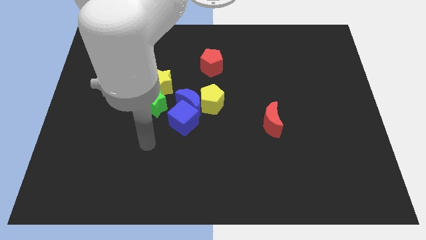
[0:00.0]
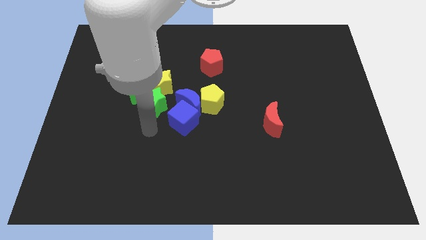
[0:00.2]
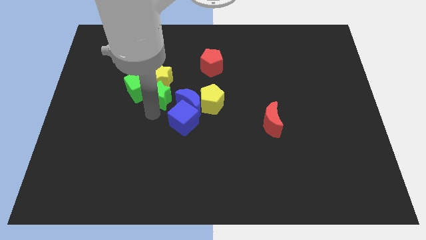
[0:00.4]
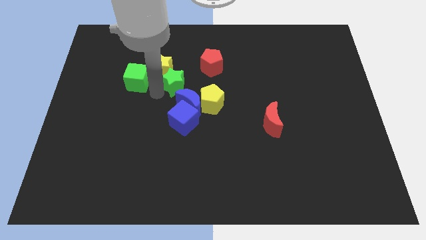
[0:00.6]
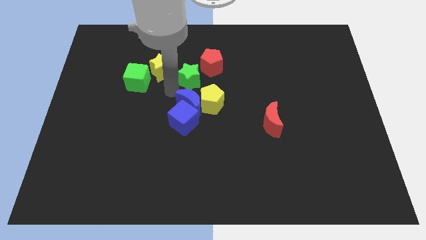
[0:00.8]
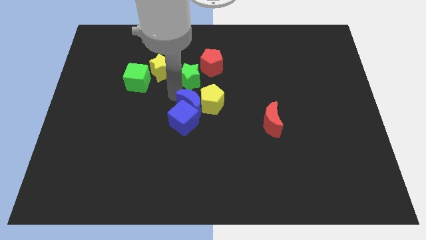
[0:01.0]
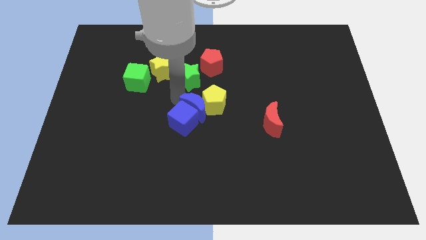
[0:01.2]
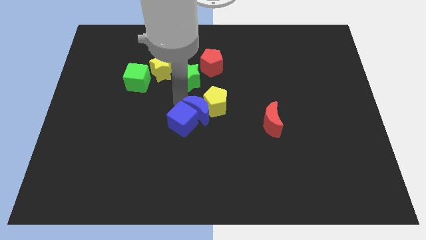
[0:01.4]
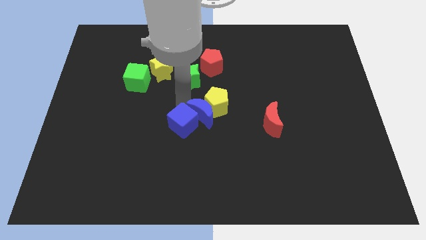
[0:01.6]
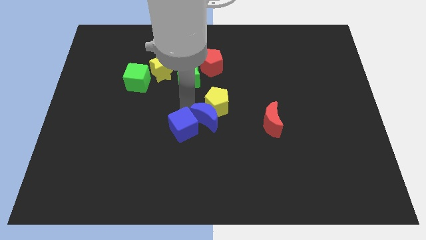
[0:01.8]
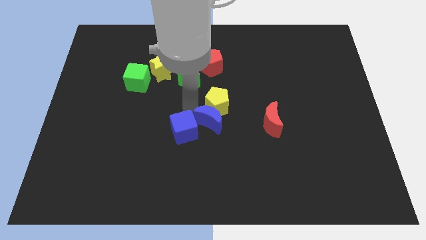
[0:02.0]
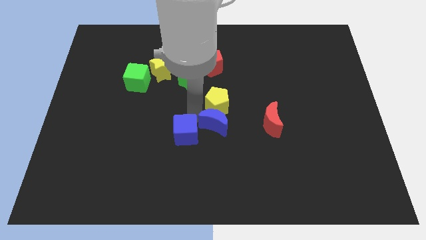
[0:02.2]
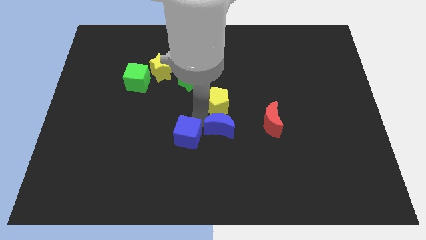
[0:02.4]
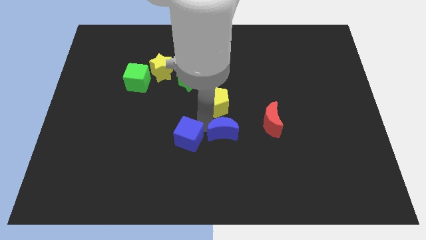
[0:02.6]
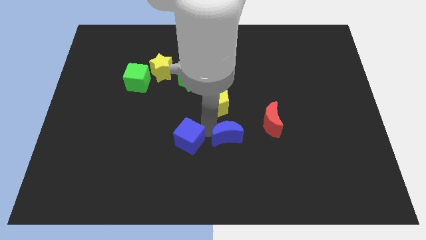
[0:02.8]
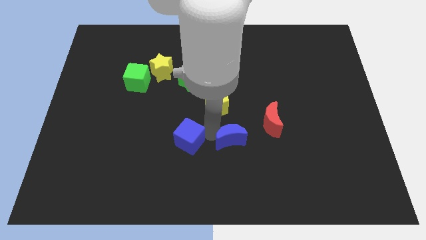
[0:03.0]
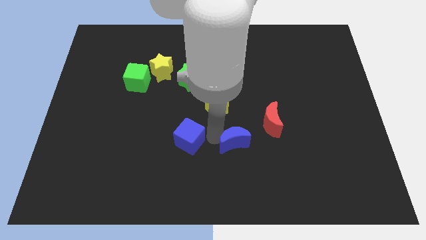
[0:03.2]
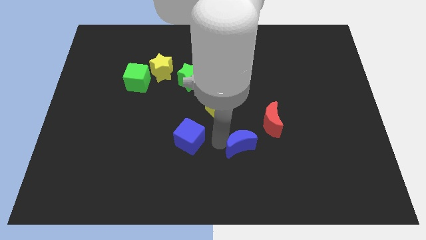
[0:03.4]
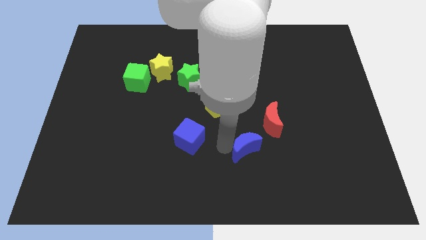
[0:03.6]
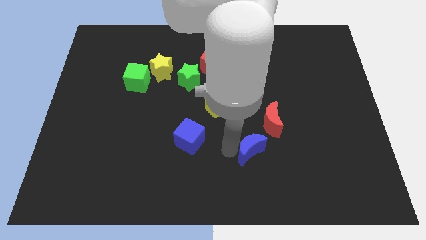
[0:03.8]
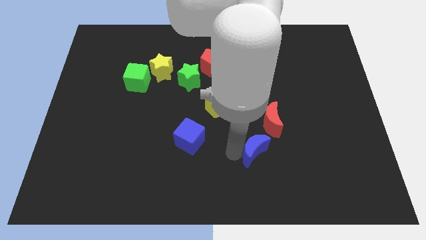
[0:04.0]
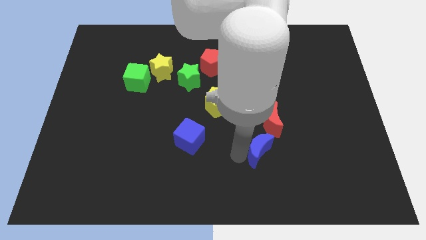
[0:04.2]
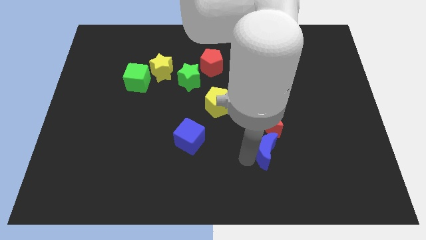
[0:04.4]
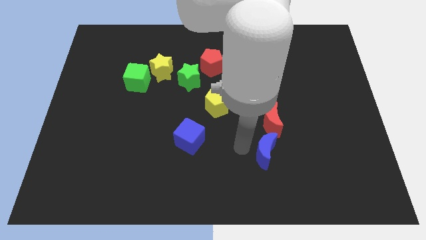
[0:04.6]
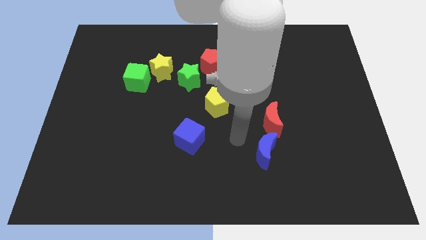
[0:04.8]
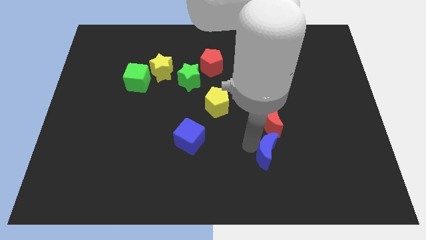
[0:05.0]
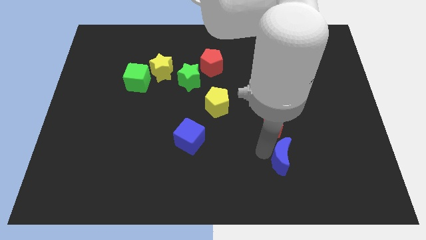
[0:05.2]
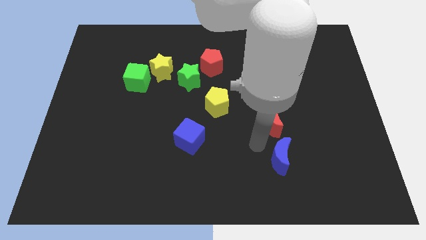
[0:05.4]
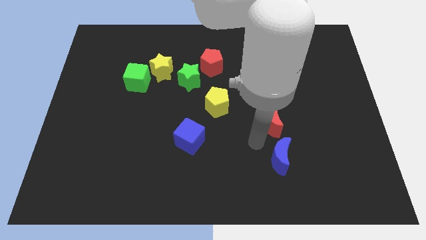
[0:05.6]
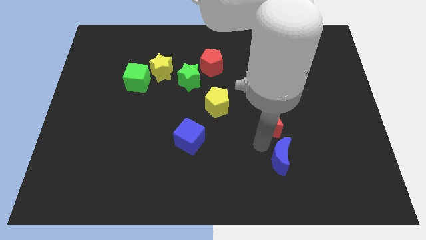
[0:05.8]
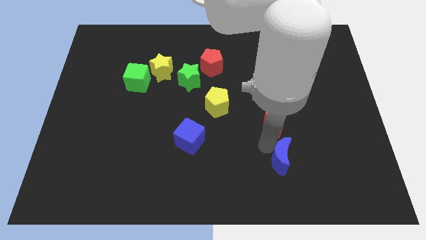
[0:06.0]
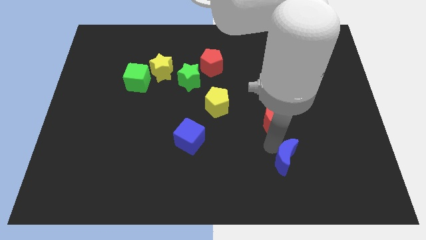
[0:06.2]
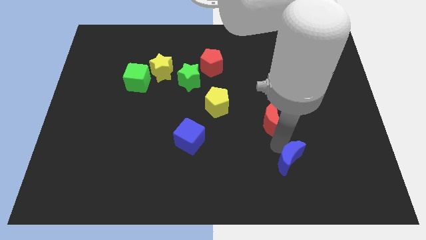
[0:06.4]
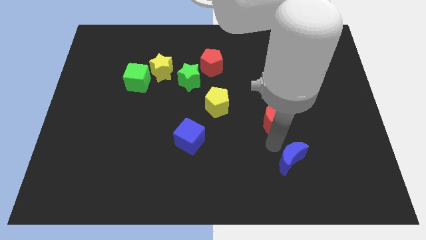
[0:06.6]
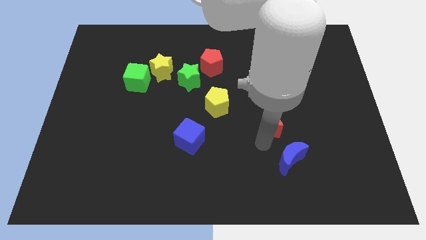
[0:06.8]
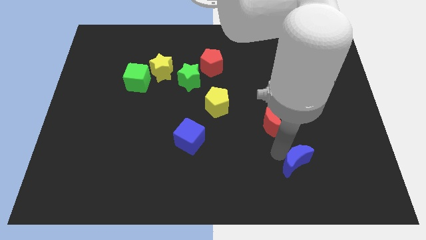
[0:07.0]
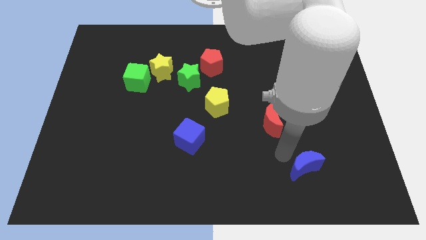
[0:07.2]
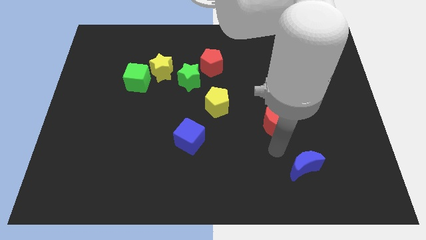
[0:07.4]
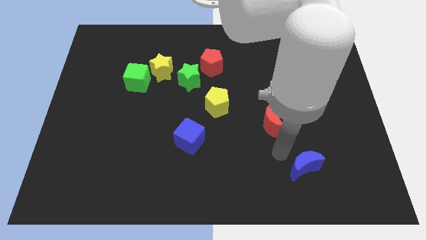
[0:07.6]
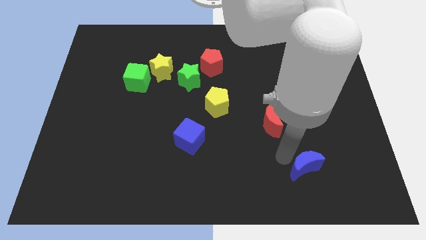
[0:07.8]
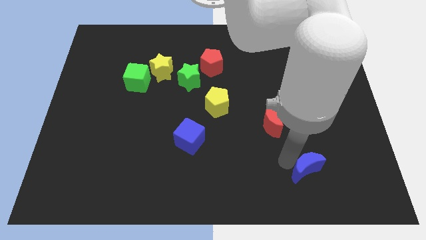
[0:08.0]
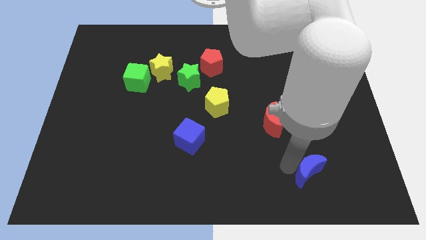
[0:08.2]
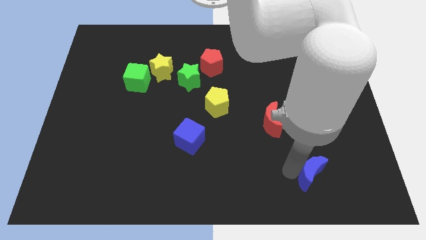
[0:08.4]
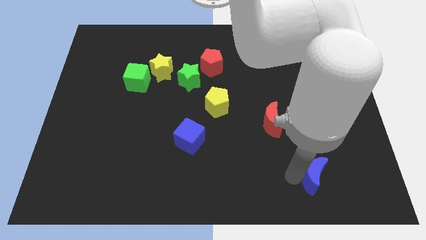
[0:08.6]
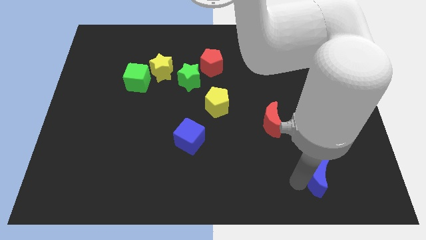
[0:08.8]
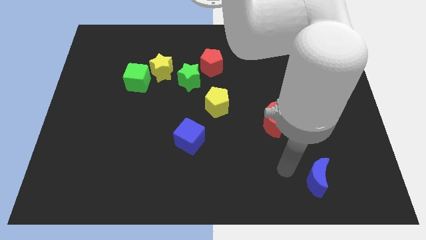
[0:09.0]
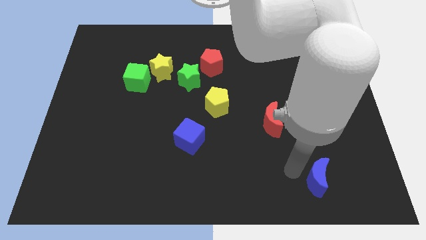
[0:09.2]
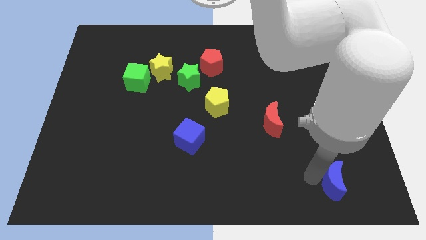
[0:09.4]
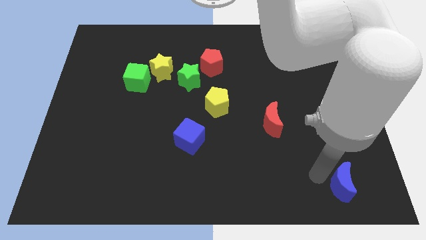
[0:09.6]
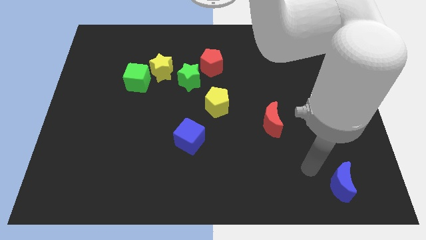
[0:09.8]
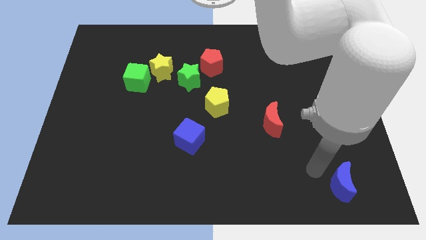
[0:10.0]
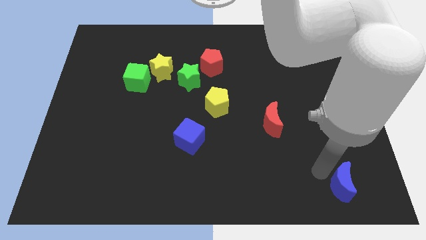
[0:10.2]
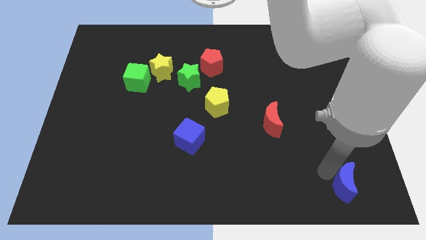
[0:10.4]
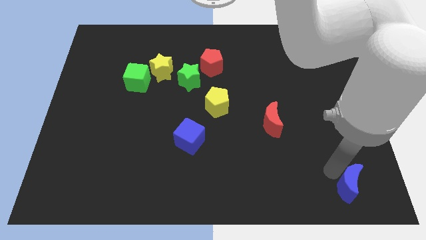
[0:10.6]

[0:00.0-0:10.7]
push the blue moon to the lower right corner

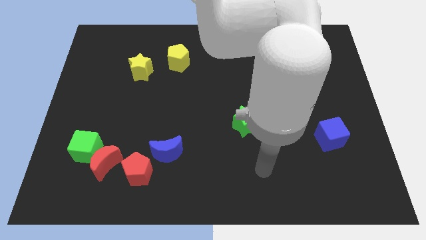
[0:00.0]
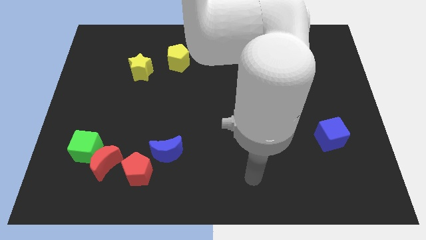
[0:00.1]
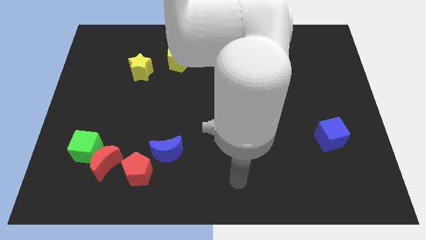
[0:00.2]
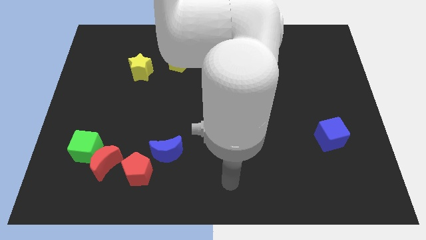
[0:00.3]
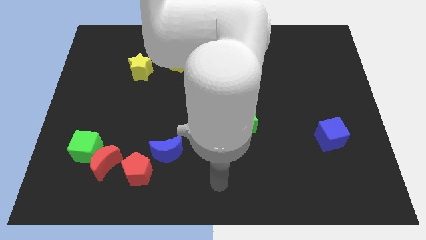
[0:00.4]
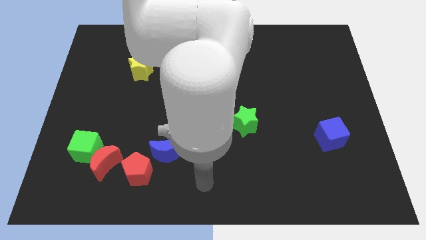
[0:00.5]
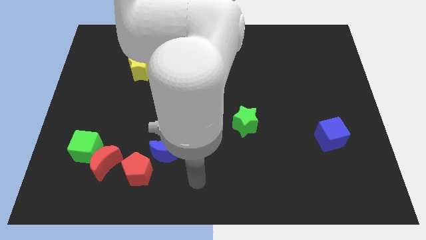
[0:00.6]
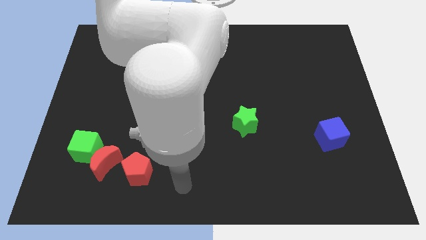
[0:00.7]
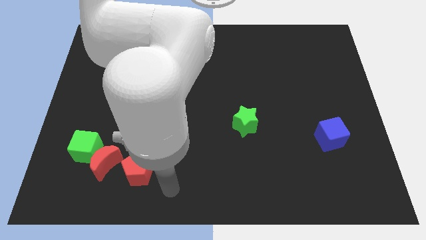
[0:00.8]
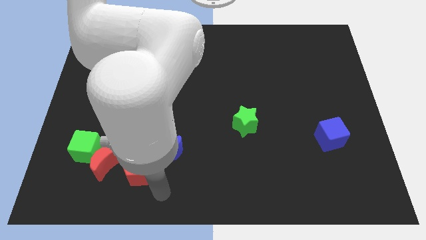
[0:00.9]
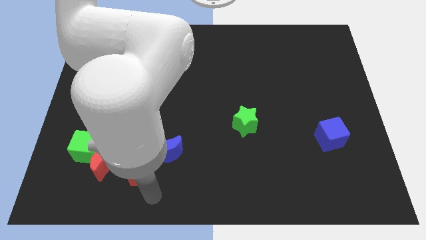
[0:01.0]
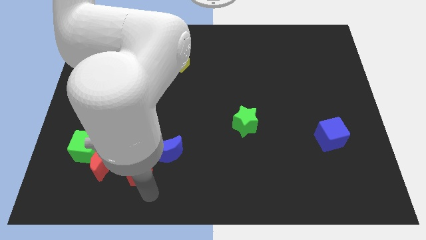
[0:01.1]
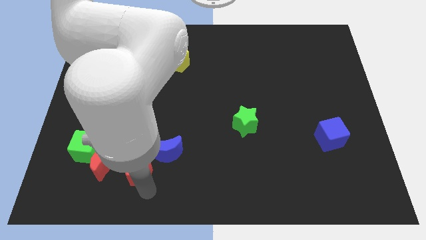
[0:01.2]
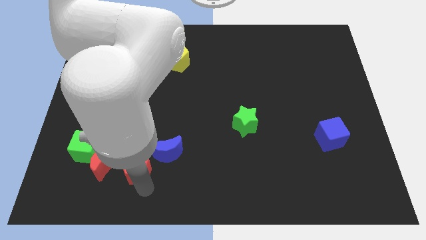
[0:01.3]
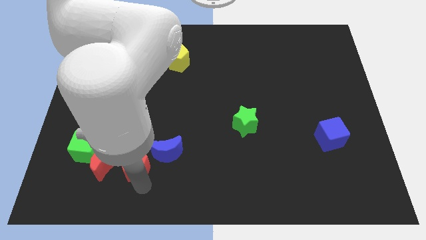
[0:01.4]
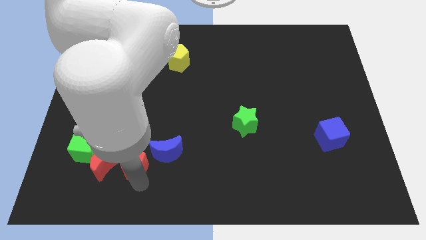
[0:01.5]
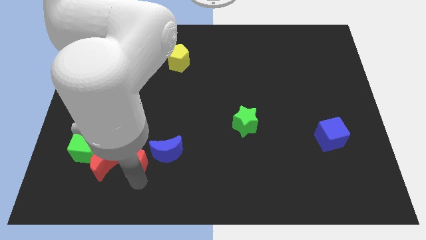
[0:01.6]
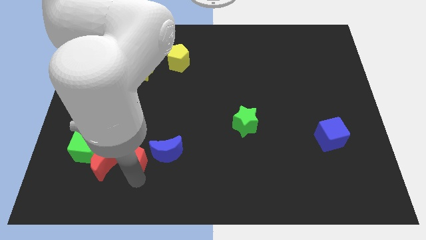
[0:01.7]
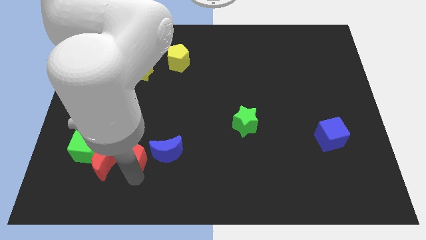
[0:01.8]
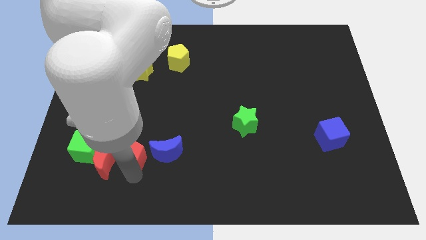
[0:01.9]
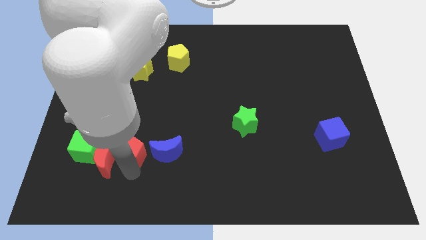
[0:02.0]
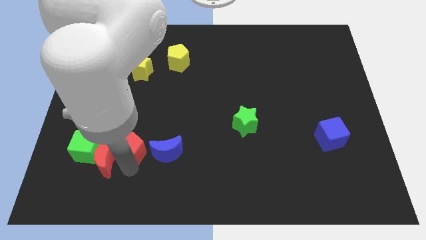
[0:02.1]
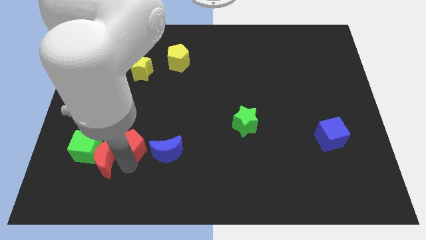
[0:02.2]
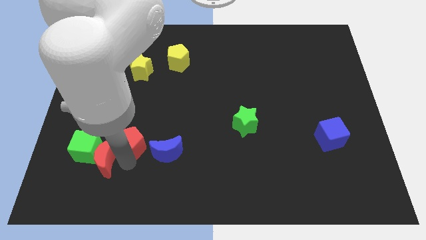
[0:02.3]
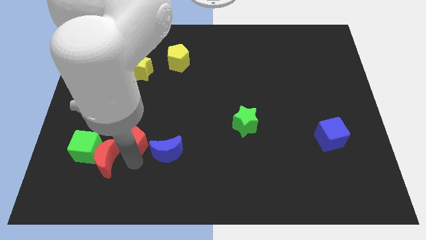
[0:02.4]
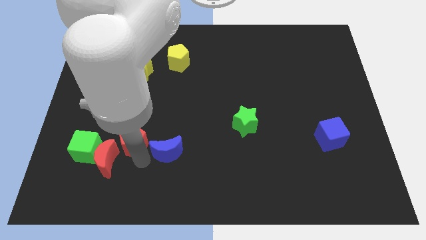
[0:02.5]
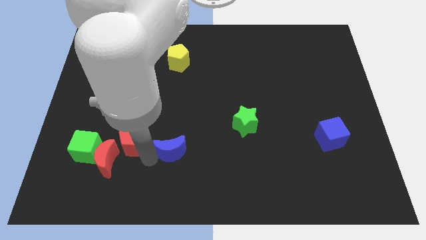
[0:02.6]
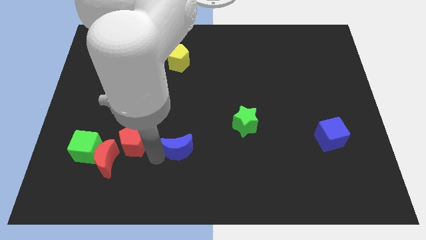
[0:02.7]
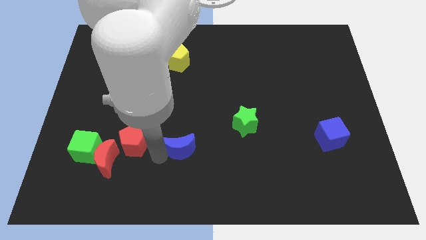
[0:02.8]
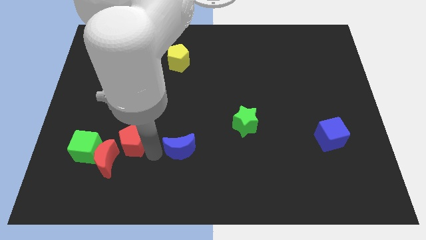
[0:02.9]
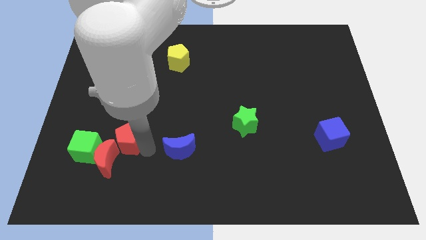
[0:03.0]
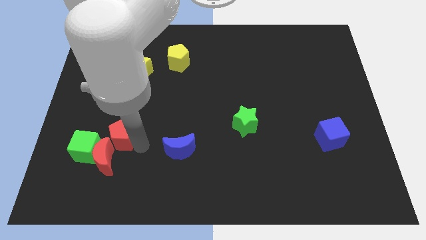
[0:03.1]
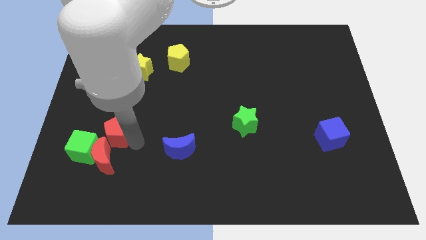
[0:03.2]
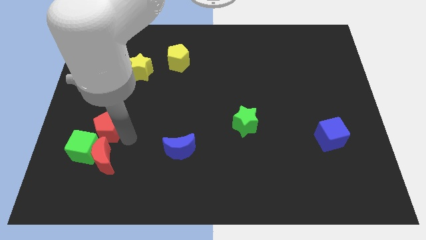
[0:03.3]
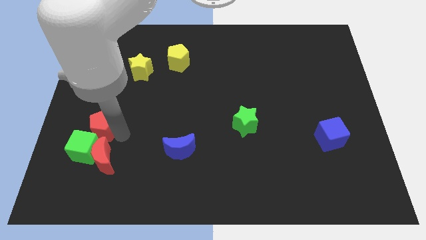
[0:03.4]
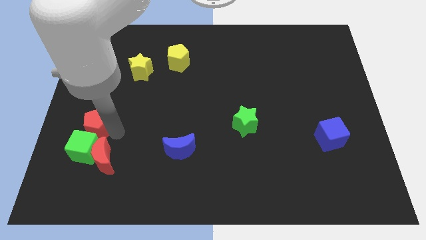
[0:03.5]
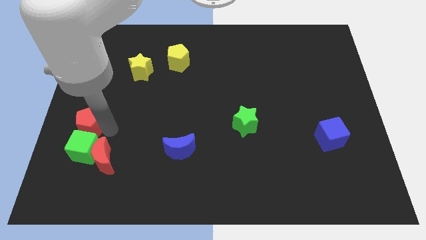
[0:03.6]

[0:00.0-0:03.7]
put the red pentagon to the left side
